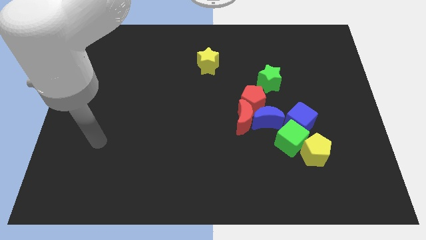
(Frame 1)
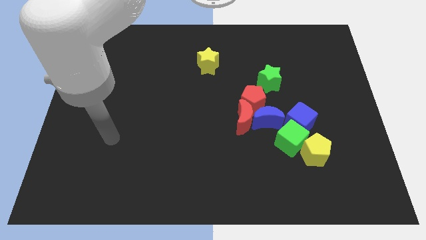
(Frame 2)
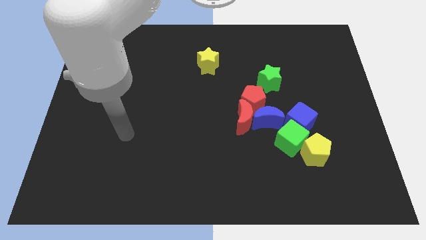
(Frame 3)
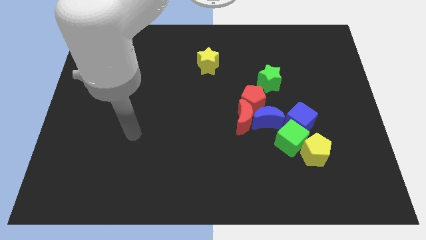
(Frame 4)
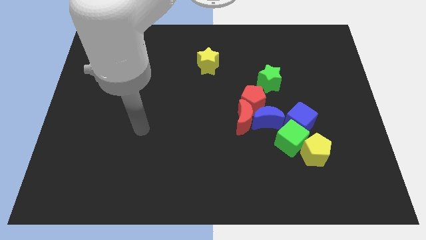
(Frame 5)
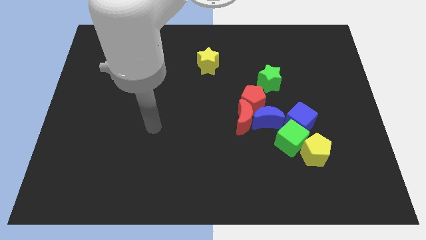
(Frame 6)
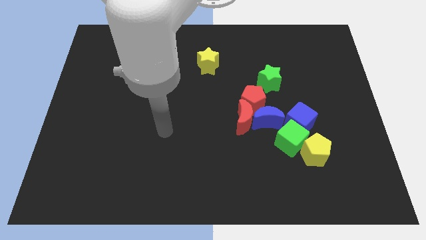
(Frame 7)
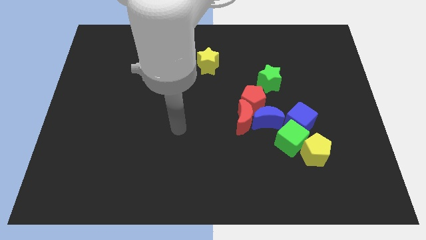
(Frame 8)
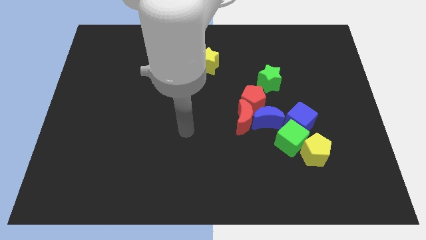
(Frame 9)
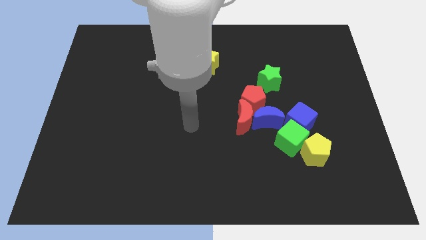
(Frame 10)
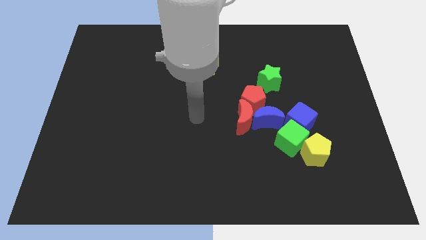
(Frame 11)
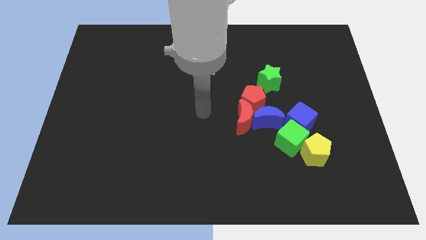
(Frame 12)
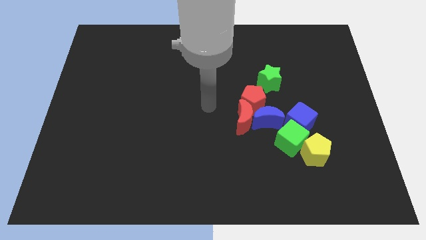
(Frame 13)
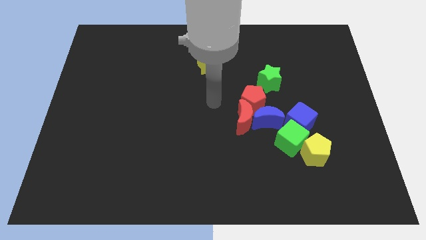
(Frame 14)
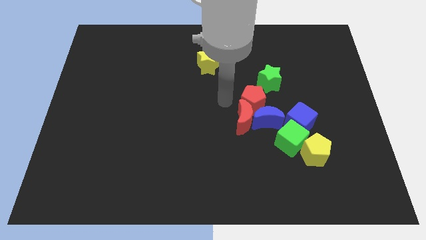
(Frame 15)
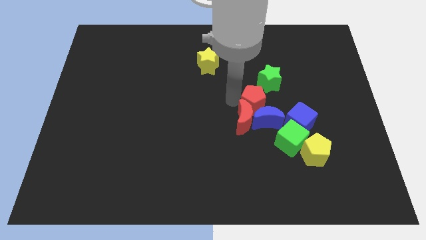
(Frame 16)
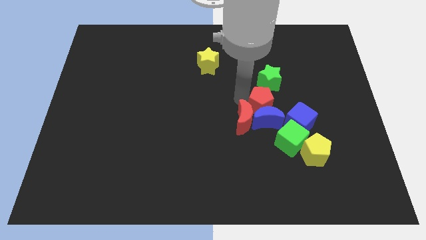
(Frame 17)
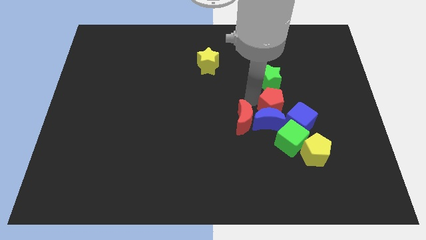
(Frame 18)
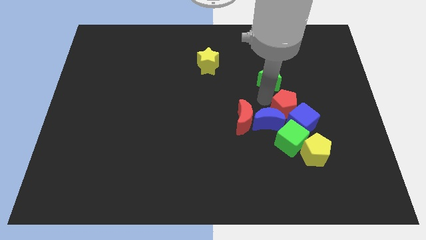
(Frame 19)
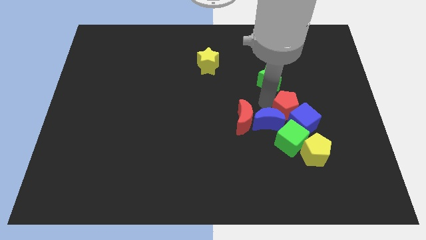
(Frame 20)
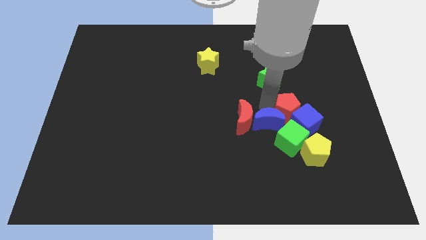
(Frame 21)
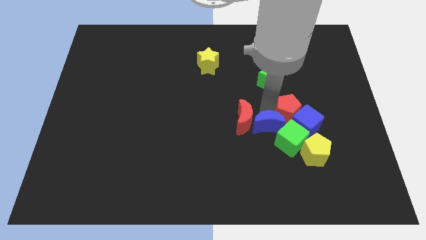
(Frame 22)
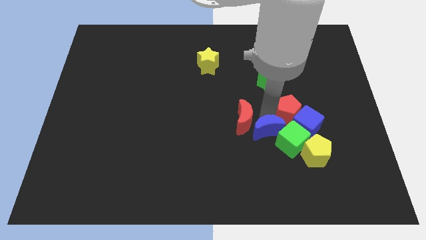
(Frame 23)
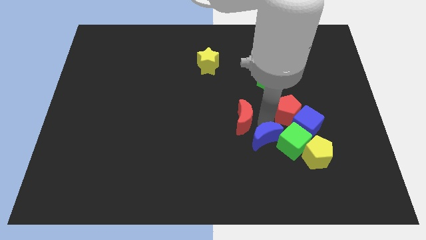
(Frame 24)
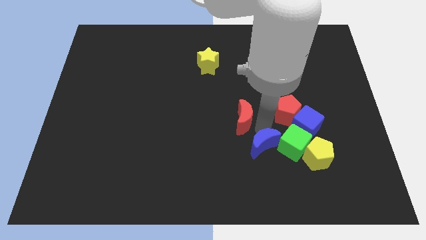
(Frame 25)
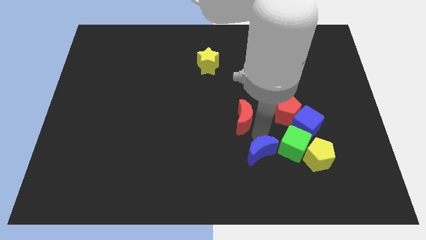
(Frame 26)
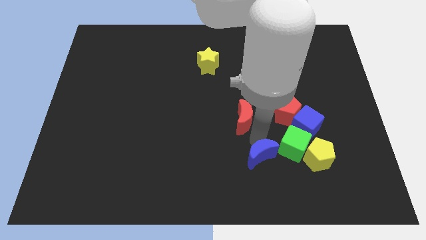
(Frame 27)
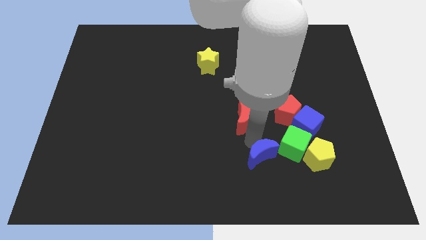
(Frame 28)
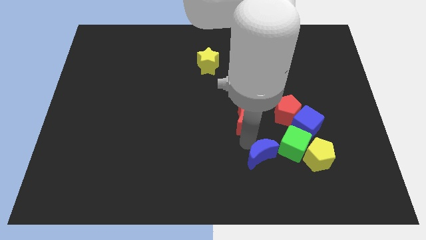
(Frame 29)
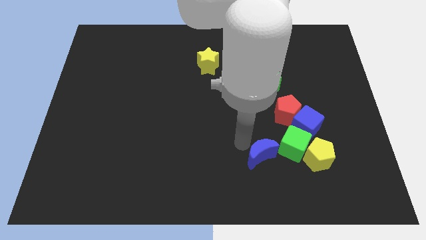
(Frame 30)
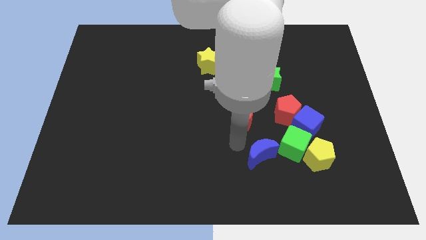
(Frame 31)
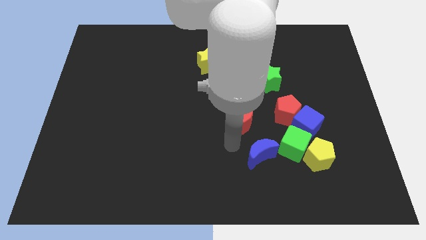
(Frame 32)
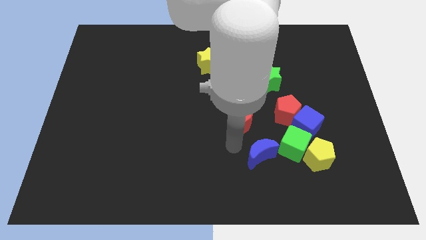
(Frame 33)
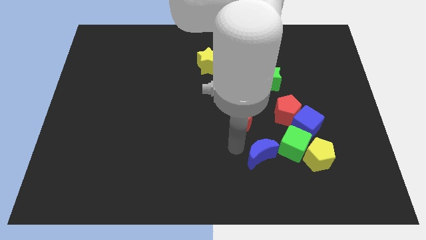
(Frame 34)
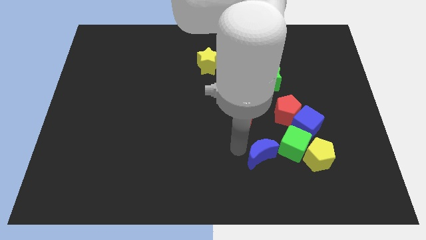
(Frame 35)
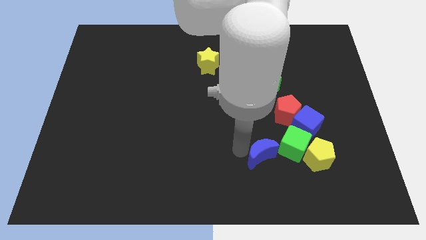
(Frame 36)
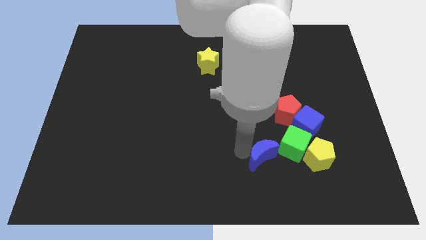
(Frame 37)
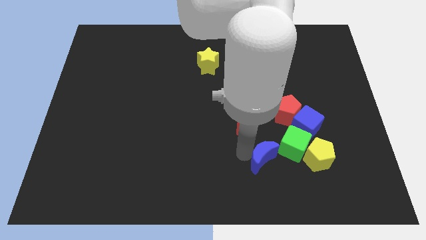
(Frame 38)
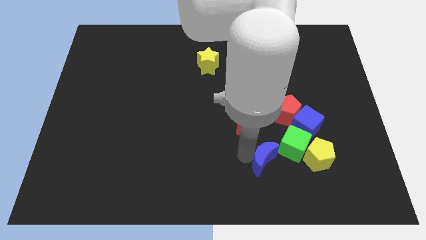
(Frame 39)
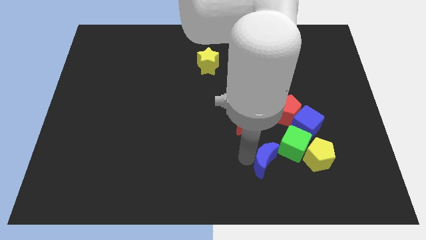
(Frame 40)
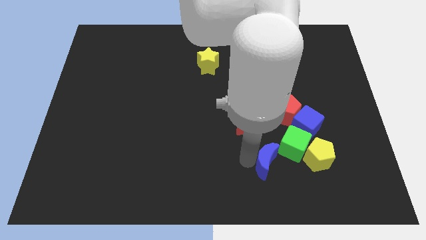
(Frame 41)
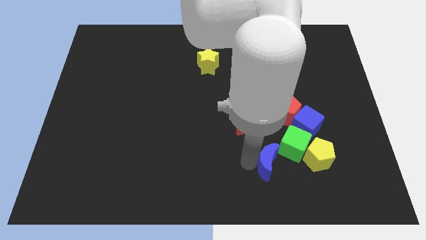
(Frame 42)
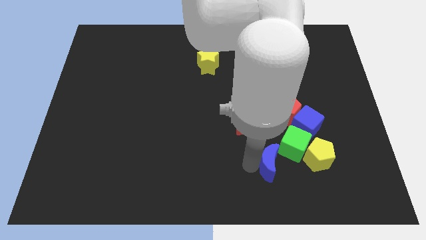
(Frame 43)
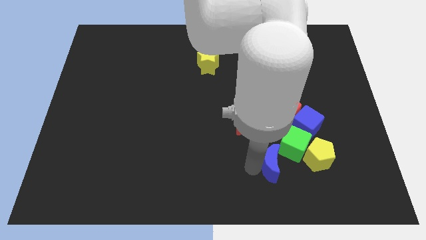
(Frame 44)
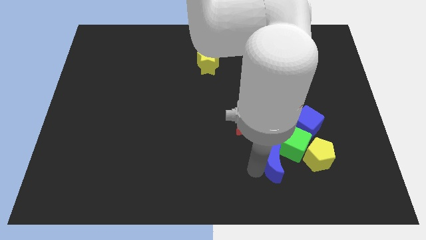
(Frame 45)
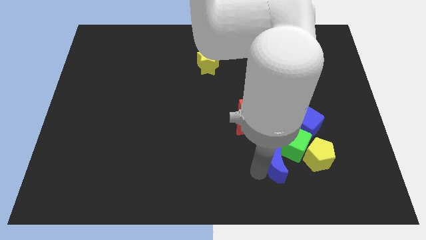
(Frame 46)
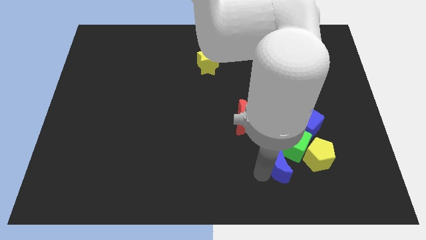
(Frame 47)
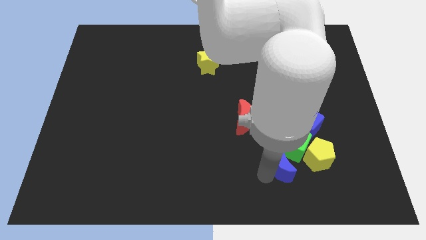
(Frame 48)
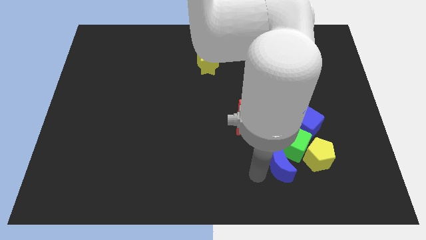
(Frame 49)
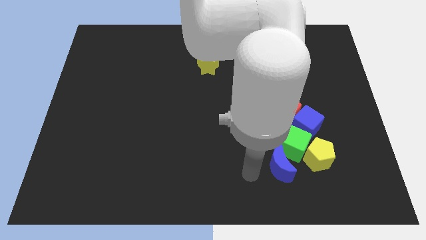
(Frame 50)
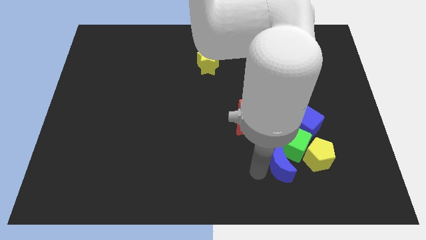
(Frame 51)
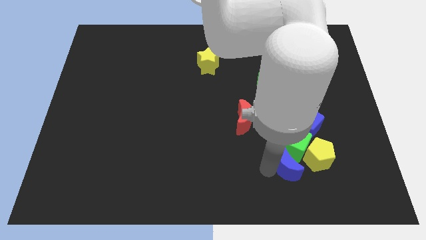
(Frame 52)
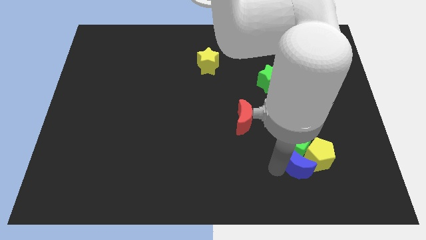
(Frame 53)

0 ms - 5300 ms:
slide the blue moon to the yellow pentagon

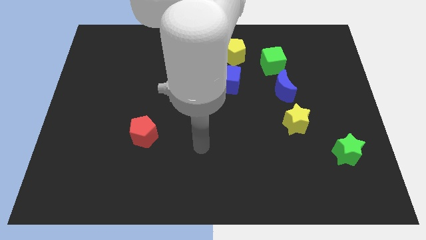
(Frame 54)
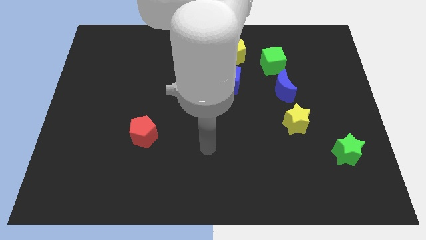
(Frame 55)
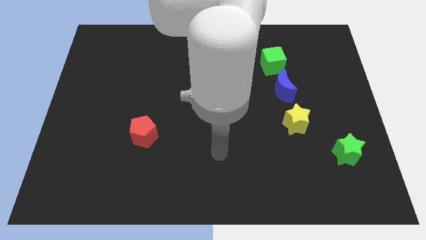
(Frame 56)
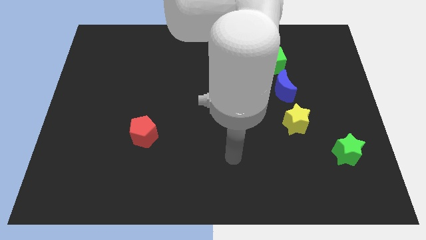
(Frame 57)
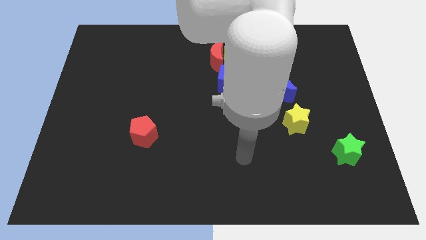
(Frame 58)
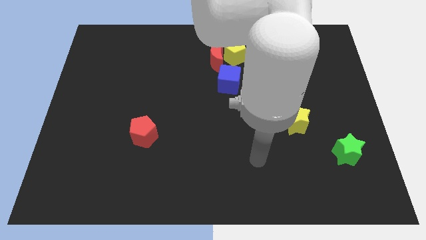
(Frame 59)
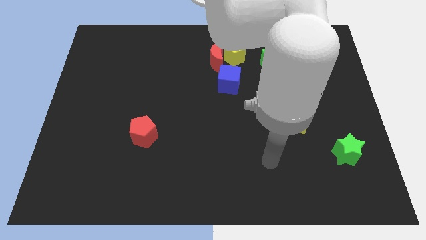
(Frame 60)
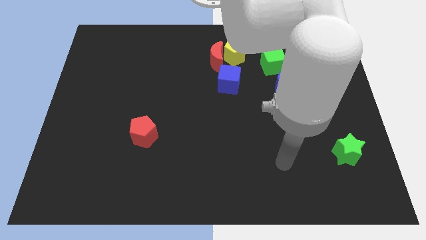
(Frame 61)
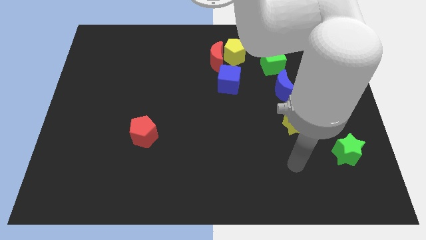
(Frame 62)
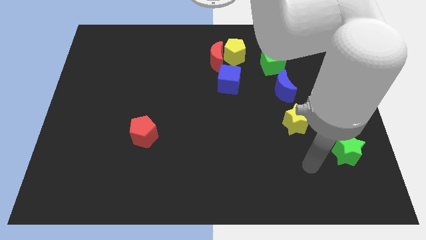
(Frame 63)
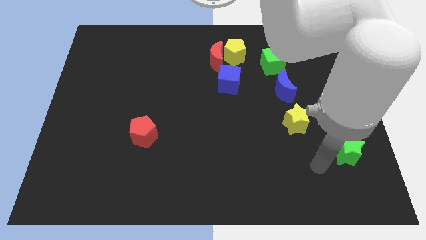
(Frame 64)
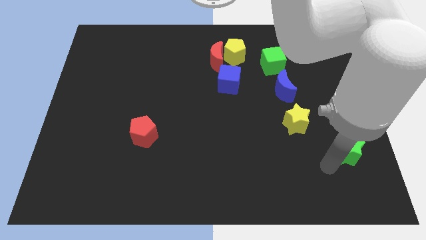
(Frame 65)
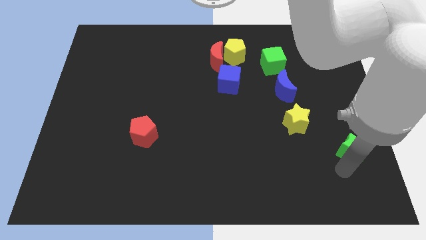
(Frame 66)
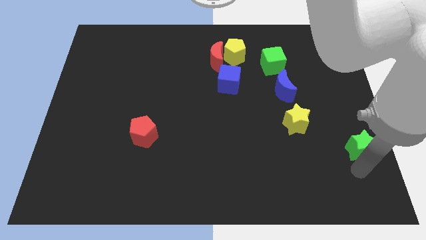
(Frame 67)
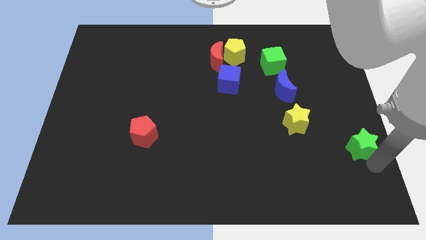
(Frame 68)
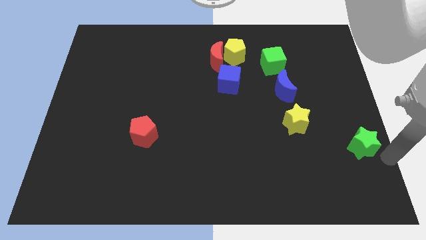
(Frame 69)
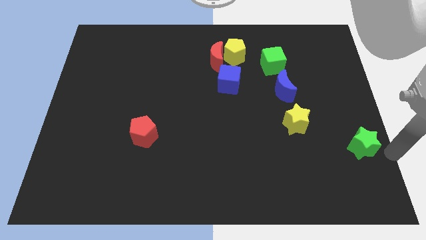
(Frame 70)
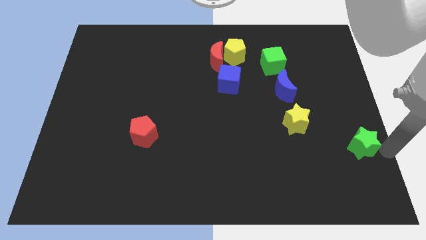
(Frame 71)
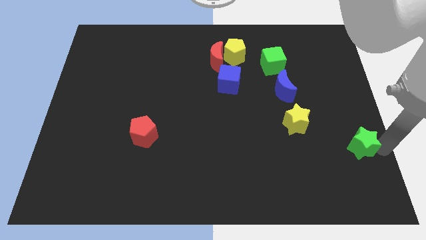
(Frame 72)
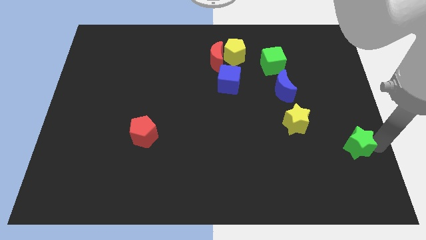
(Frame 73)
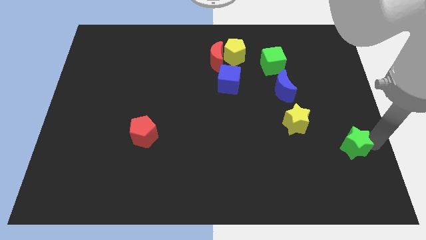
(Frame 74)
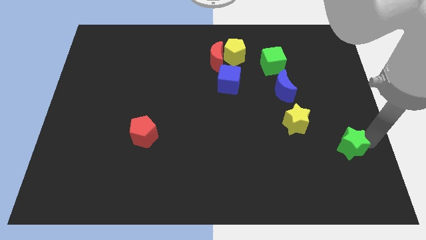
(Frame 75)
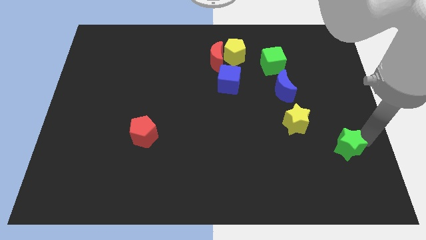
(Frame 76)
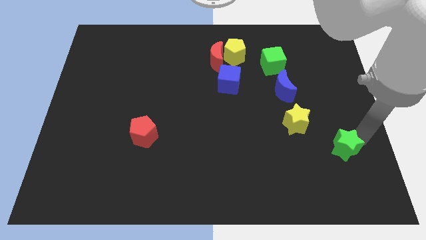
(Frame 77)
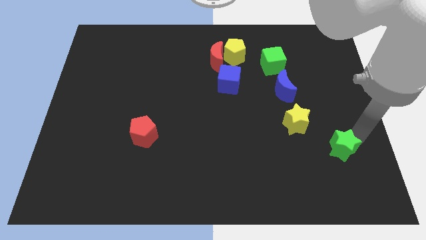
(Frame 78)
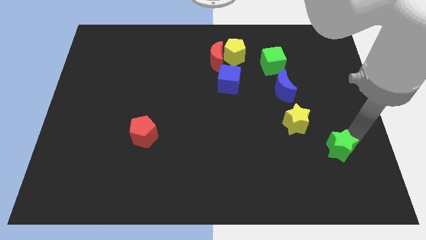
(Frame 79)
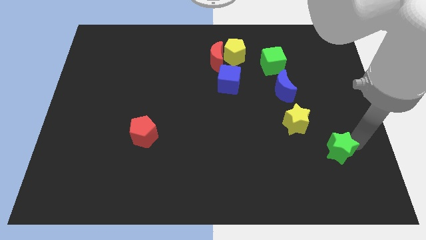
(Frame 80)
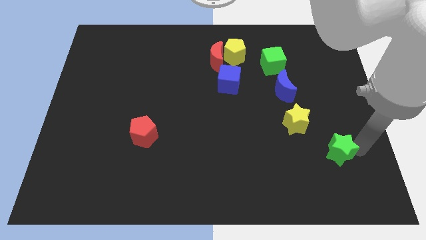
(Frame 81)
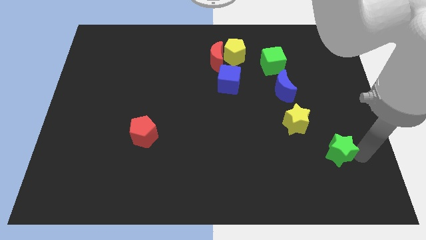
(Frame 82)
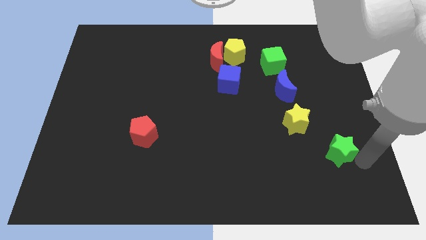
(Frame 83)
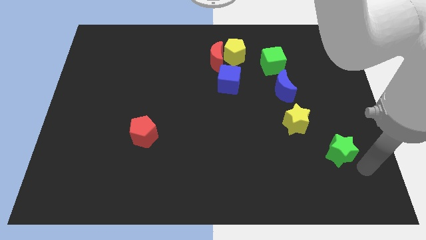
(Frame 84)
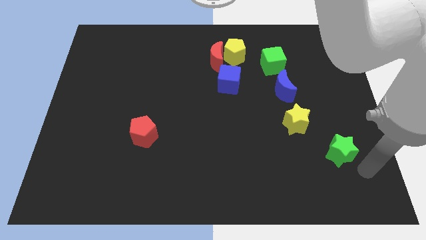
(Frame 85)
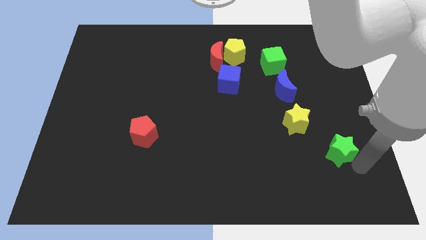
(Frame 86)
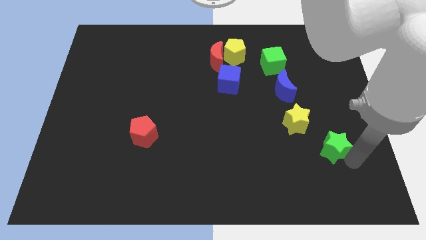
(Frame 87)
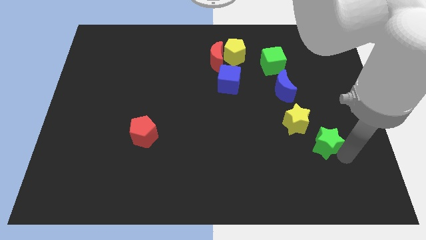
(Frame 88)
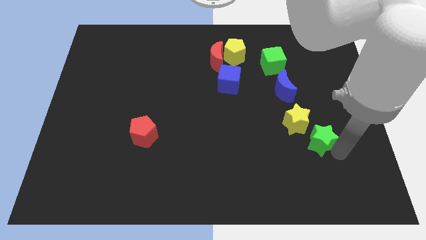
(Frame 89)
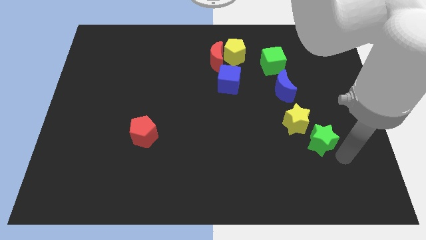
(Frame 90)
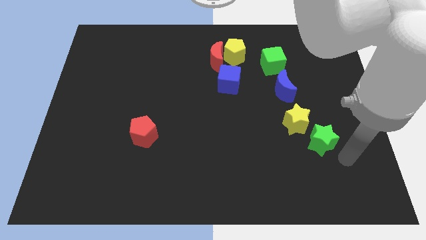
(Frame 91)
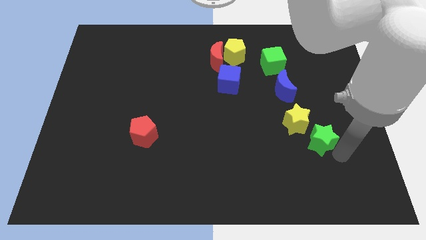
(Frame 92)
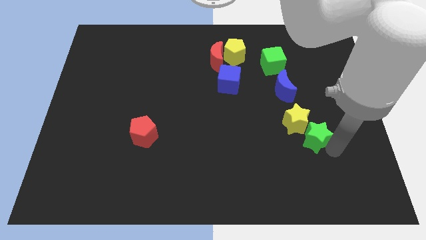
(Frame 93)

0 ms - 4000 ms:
move the green star next to the yellow star
